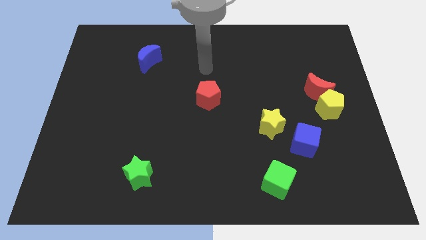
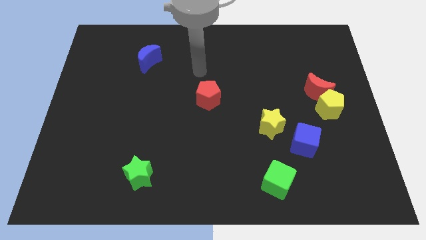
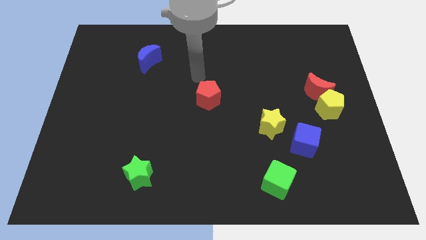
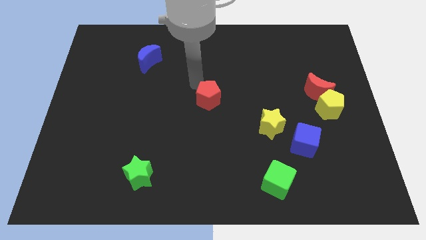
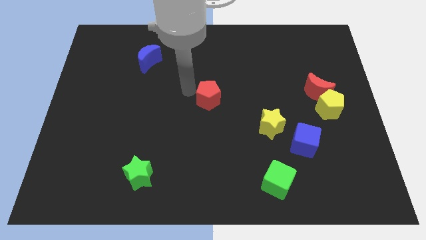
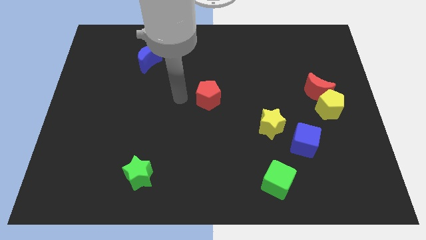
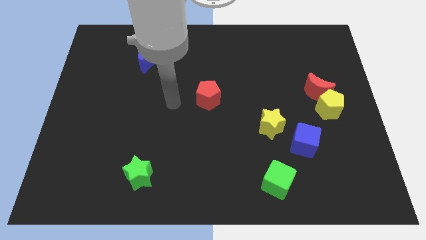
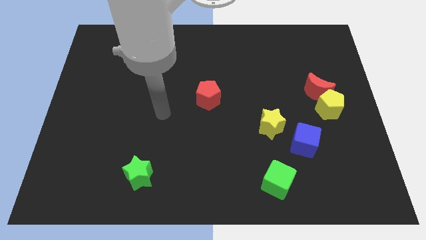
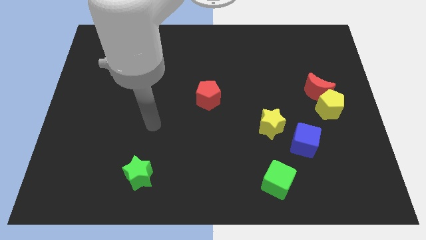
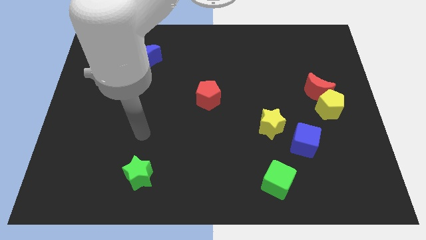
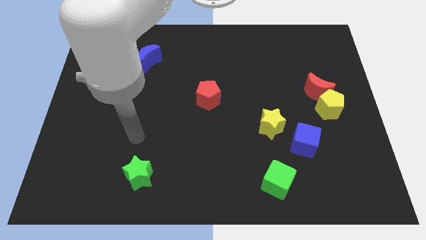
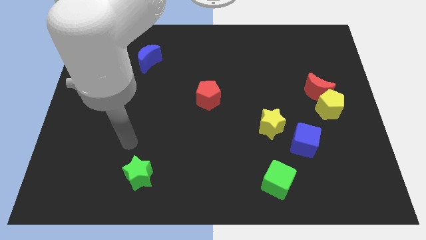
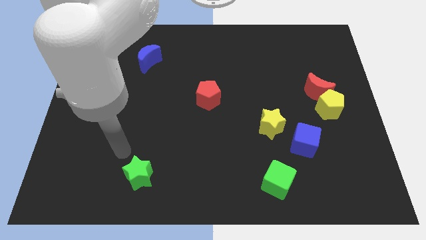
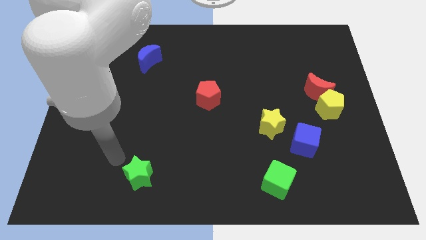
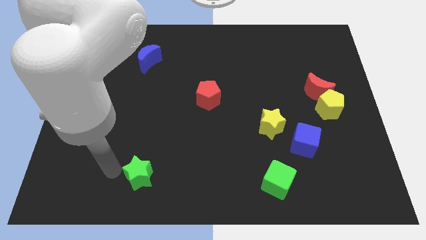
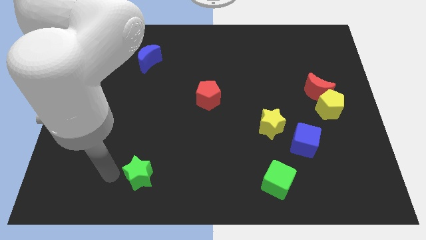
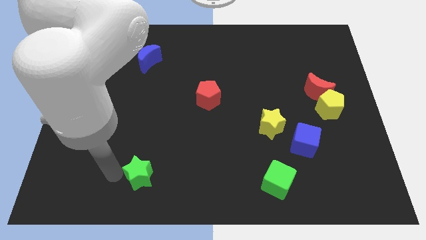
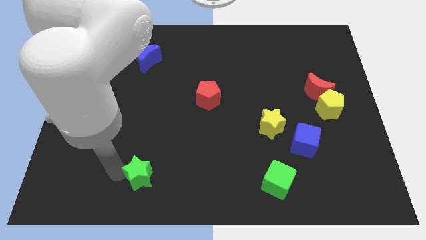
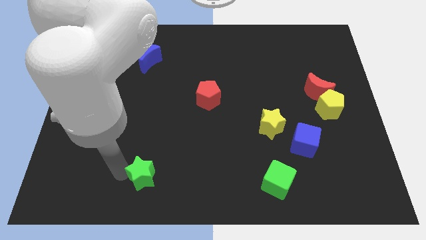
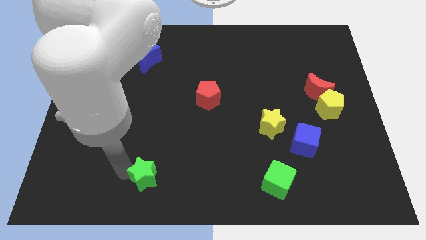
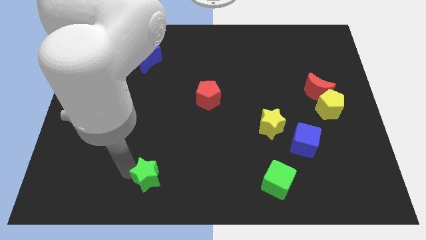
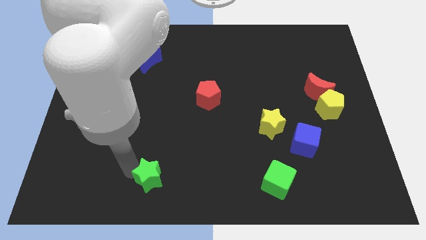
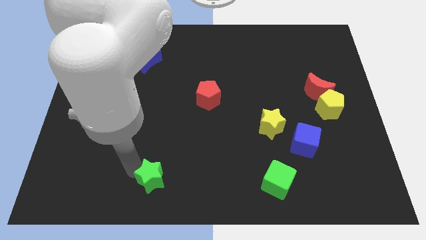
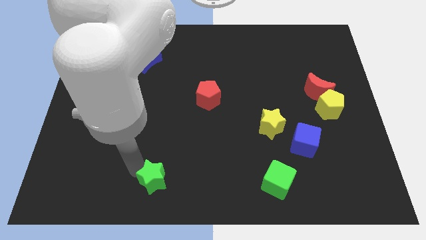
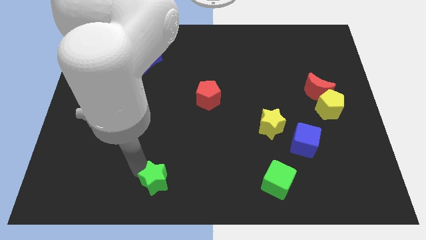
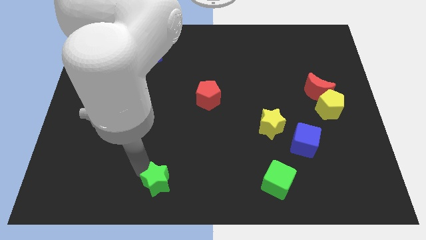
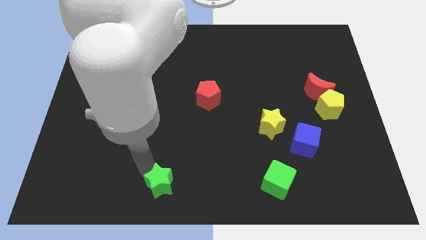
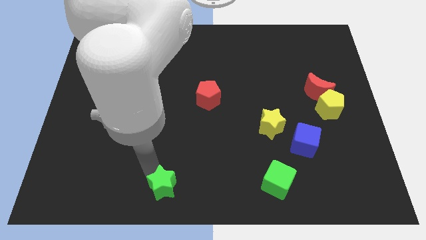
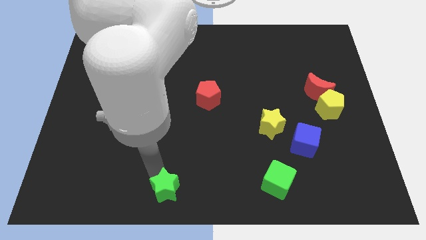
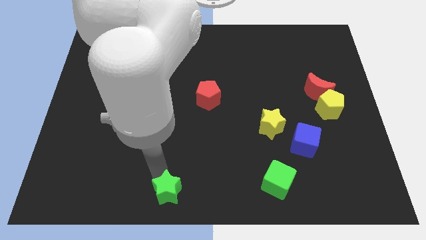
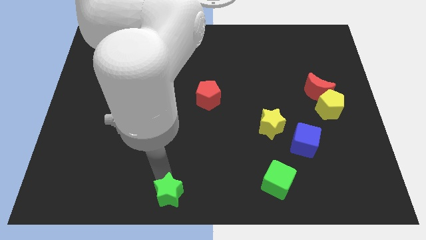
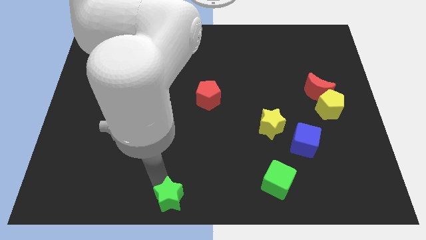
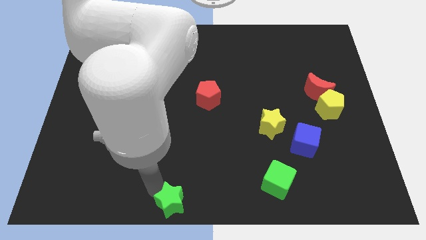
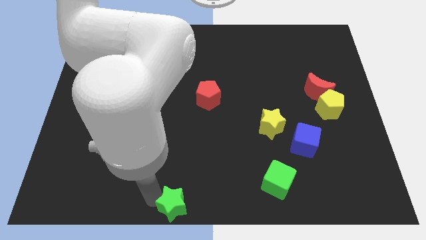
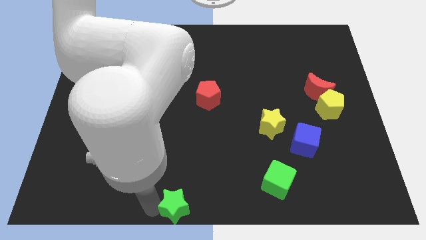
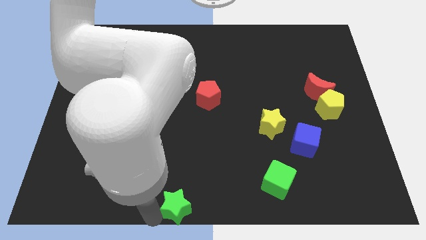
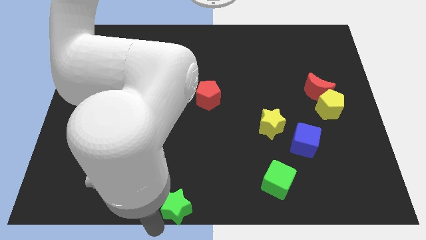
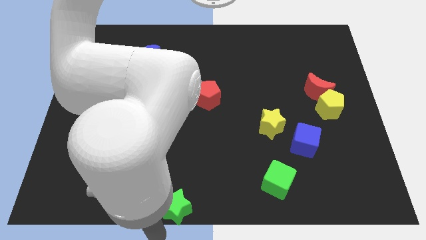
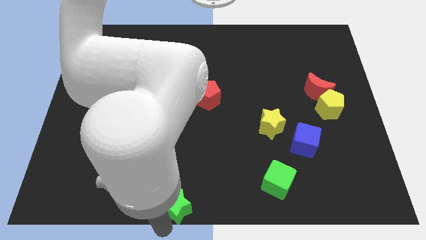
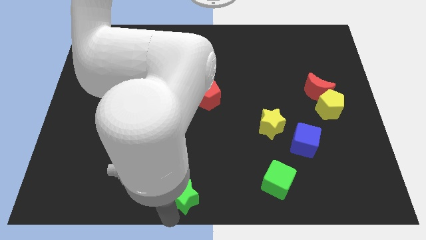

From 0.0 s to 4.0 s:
slide the green star right a bit

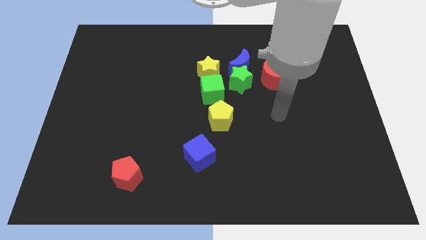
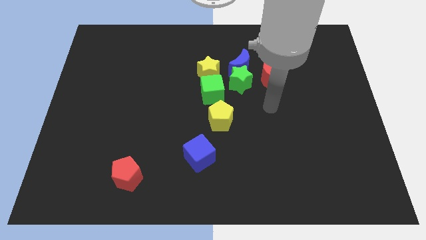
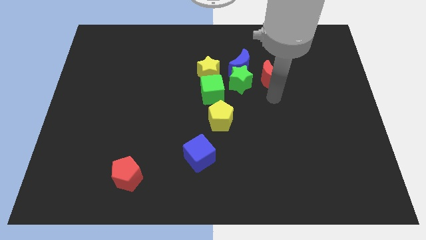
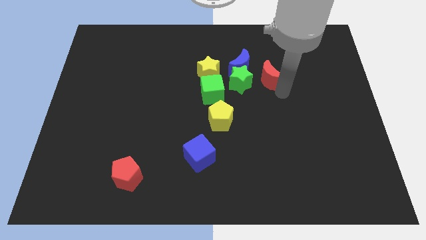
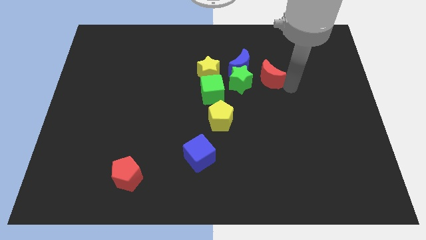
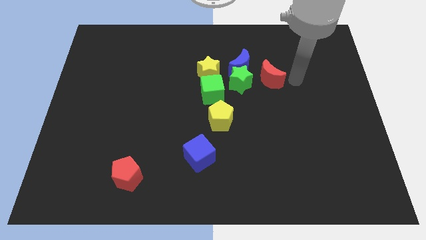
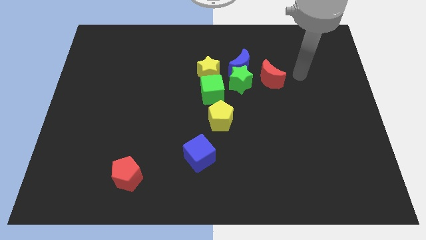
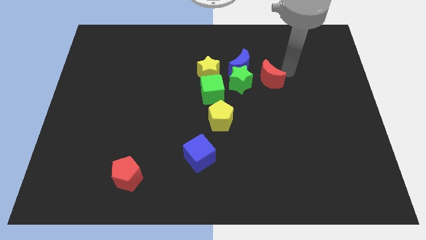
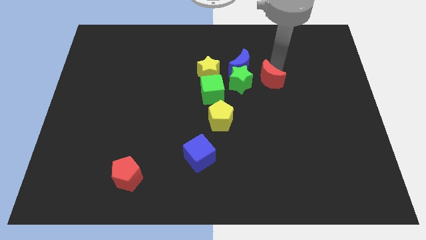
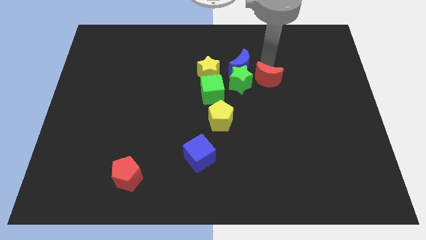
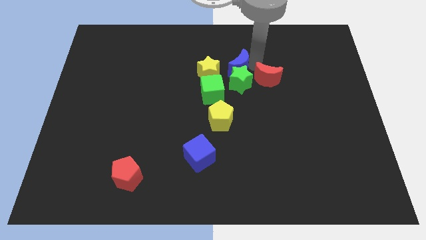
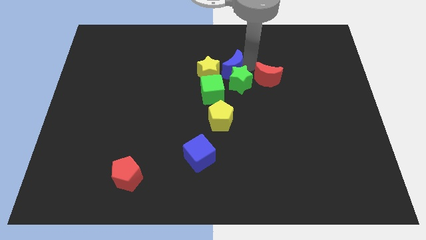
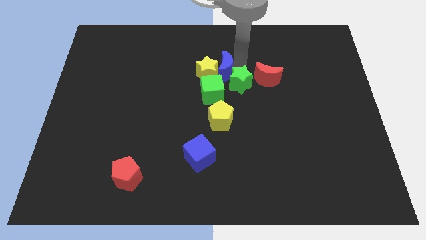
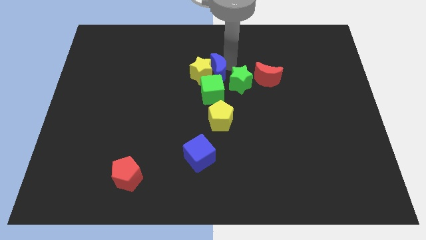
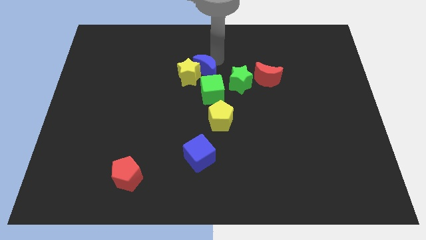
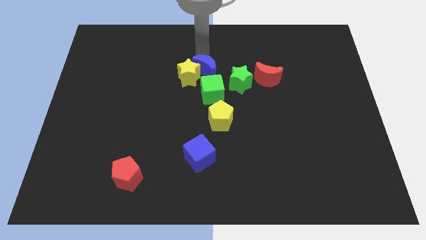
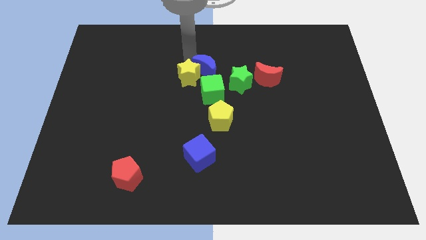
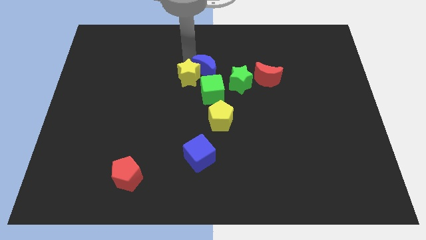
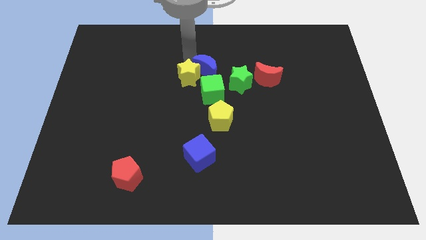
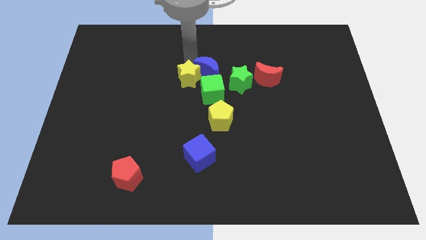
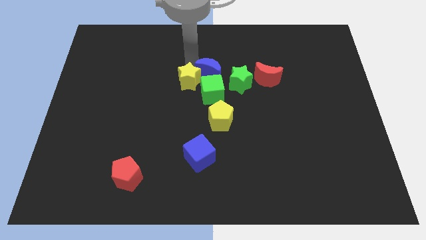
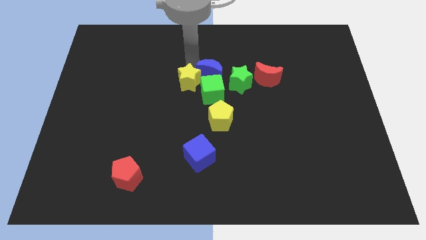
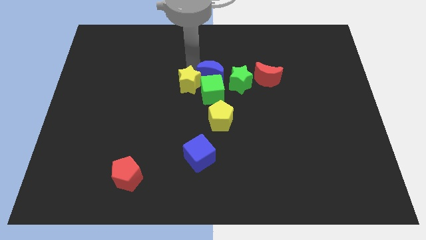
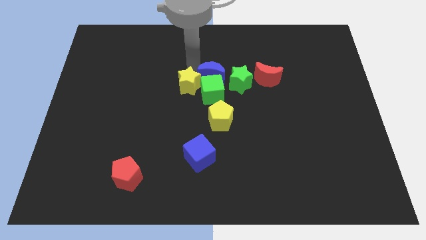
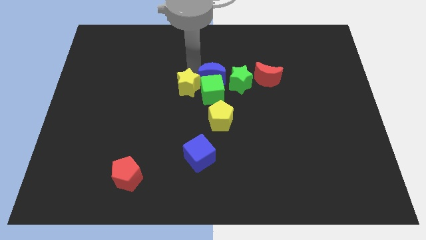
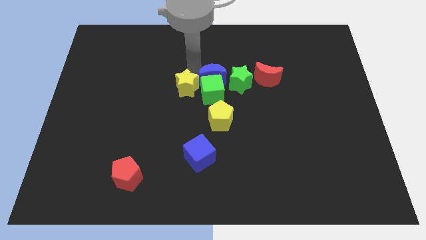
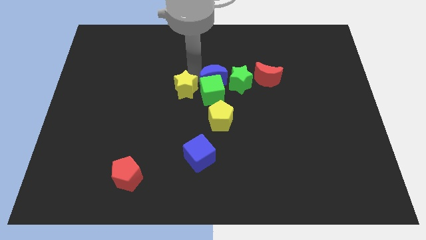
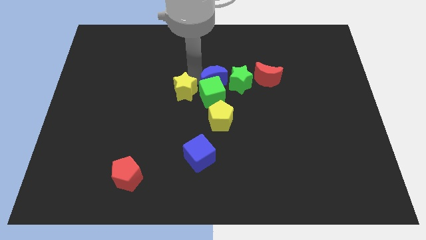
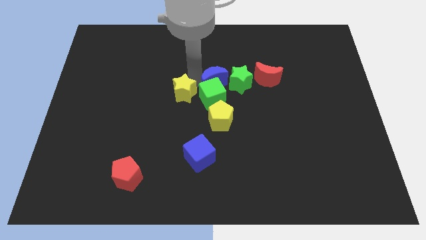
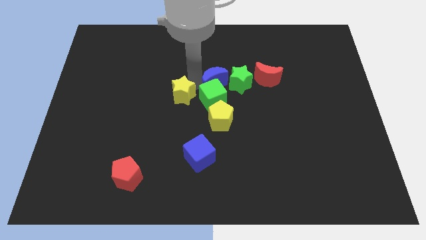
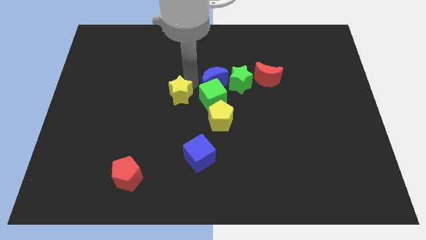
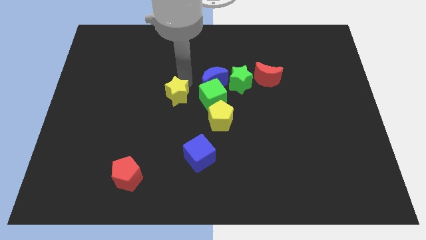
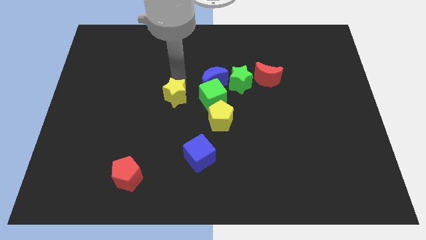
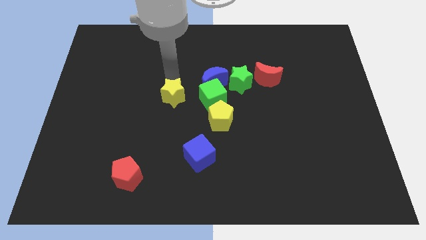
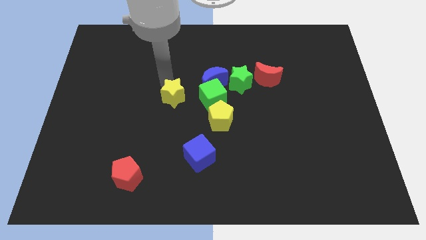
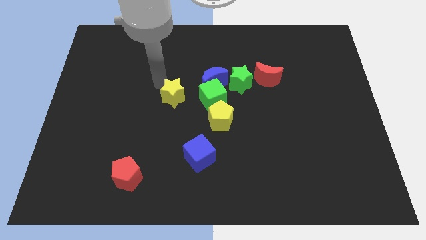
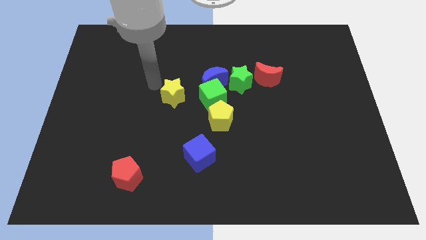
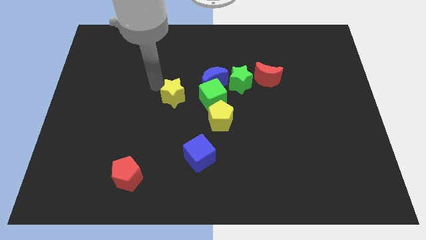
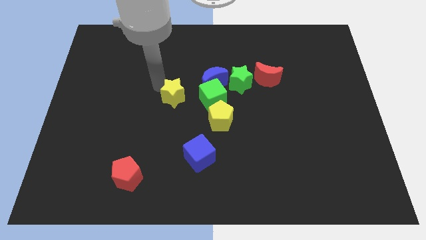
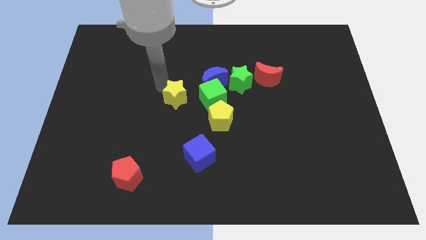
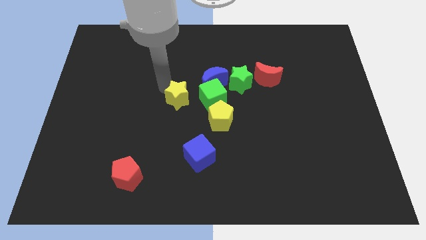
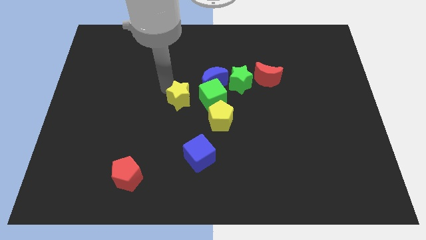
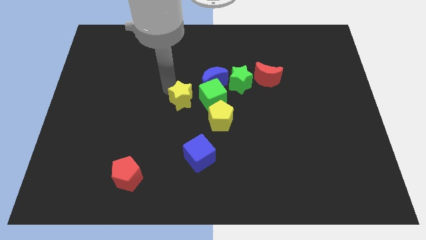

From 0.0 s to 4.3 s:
slightly move the yellow star down
